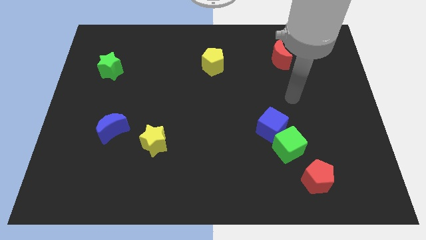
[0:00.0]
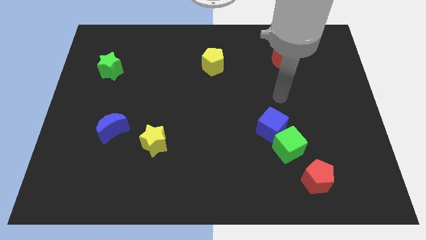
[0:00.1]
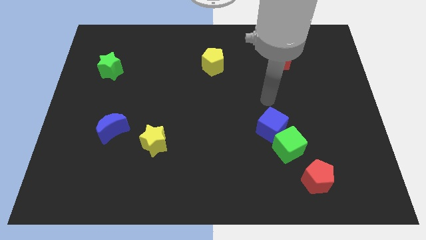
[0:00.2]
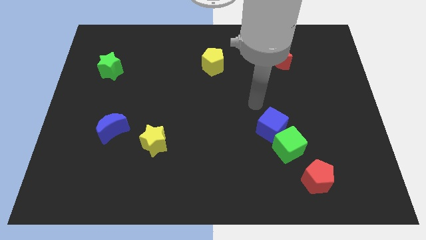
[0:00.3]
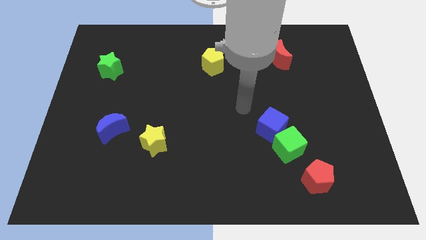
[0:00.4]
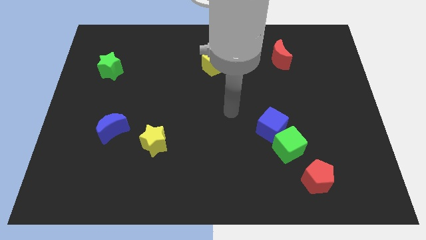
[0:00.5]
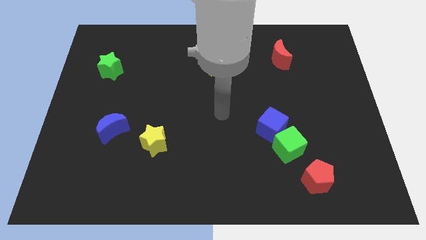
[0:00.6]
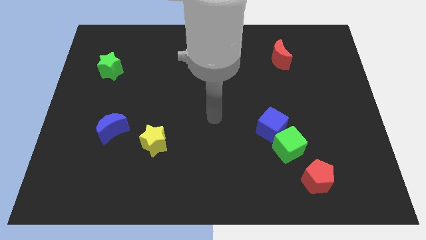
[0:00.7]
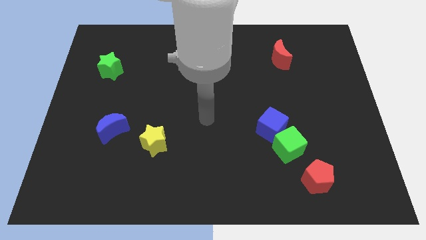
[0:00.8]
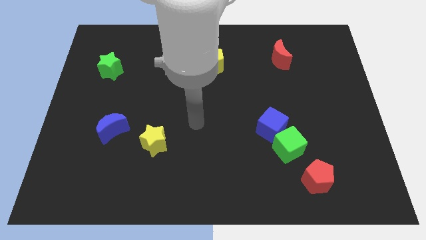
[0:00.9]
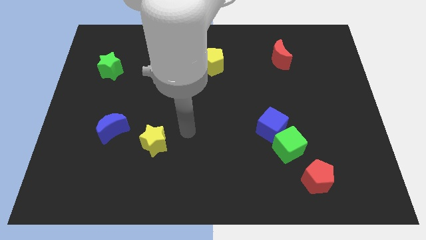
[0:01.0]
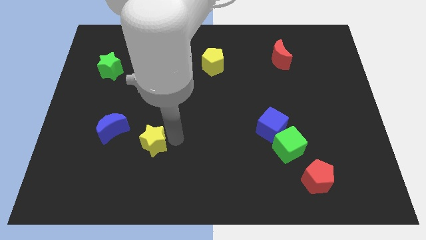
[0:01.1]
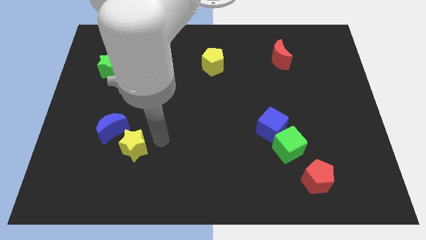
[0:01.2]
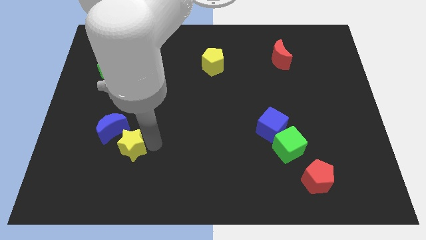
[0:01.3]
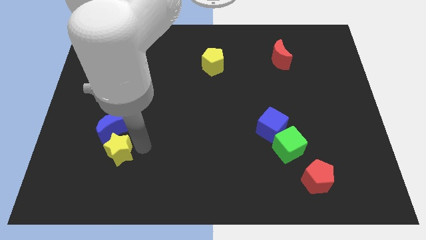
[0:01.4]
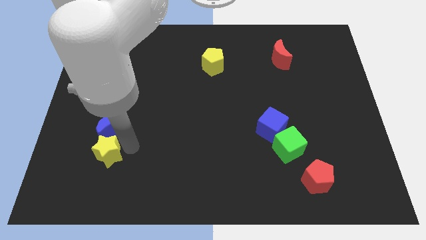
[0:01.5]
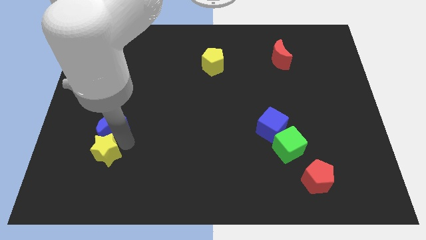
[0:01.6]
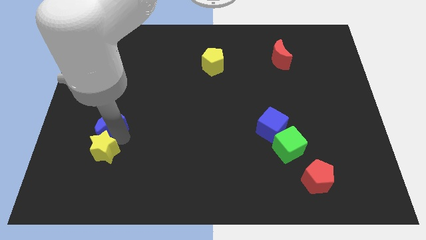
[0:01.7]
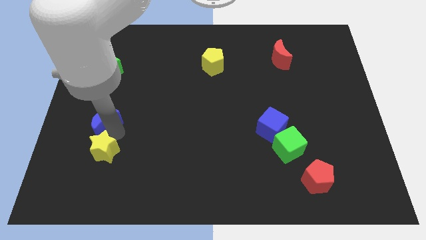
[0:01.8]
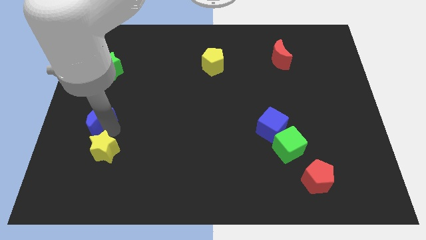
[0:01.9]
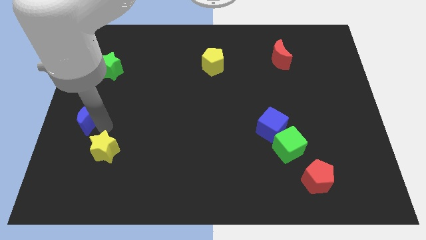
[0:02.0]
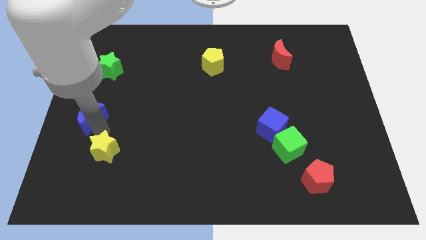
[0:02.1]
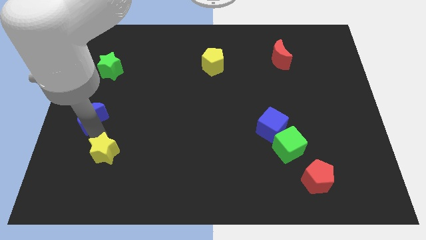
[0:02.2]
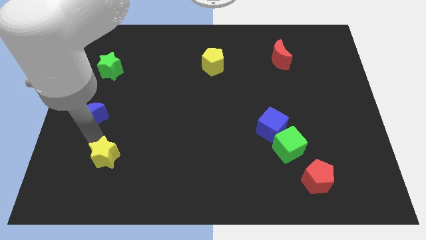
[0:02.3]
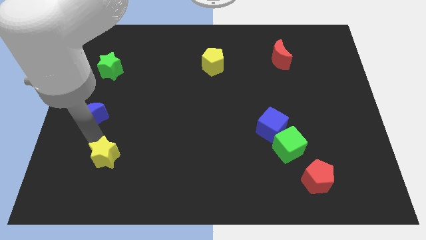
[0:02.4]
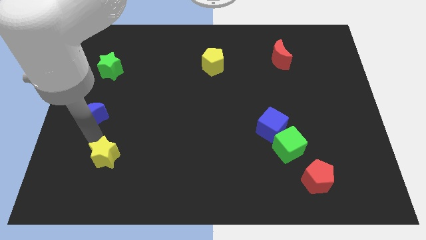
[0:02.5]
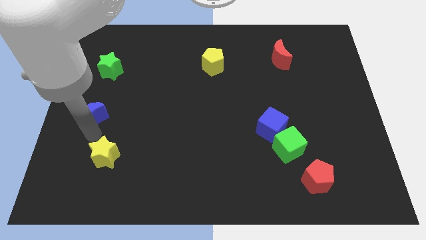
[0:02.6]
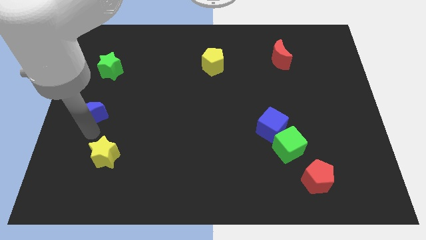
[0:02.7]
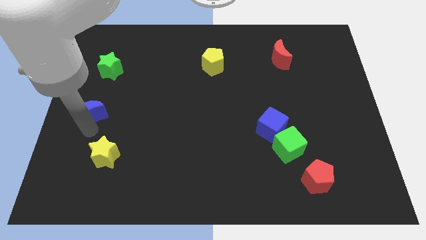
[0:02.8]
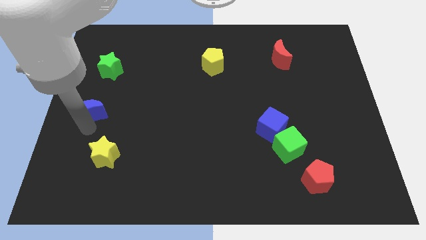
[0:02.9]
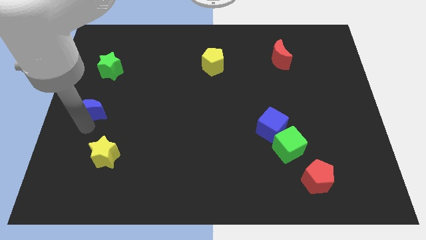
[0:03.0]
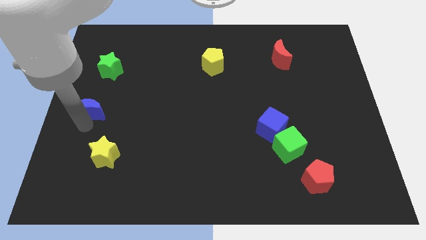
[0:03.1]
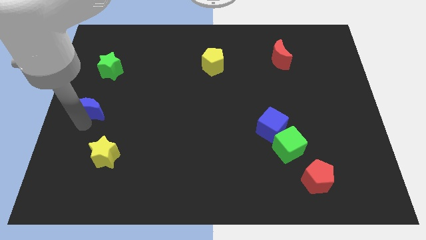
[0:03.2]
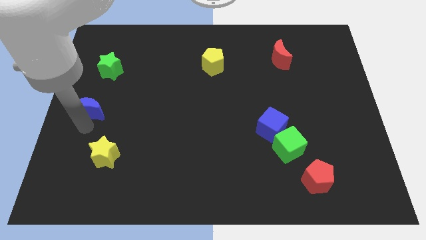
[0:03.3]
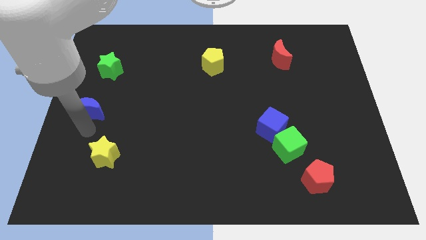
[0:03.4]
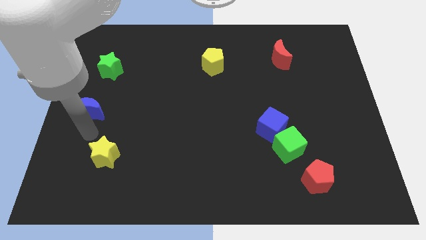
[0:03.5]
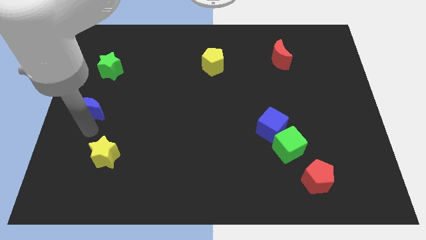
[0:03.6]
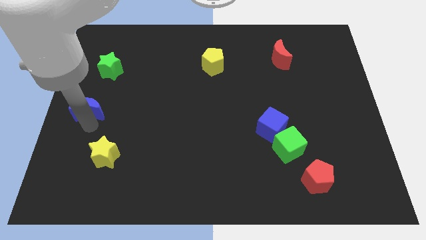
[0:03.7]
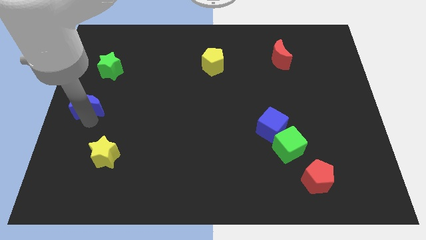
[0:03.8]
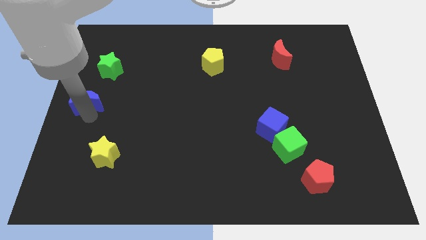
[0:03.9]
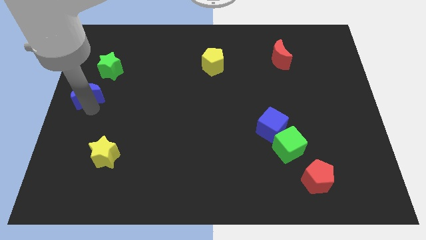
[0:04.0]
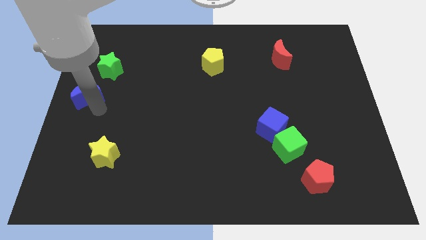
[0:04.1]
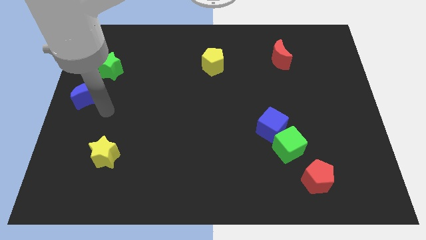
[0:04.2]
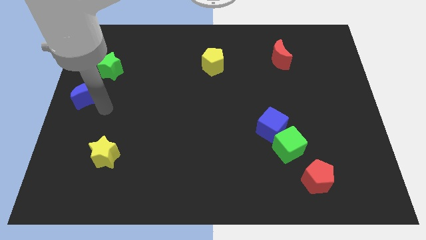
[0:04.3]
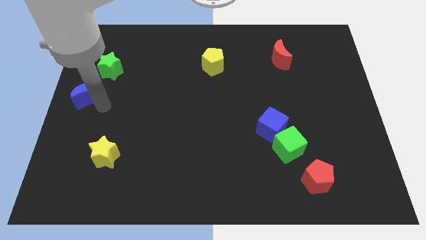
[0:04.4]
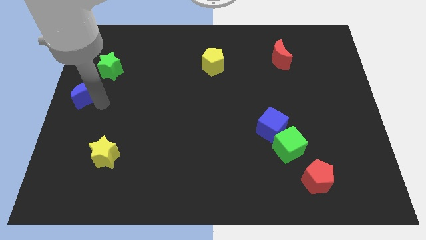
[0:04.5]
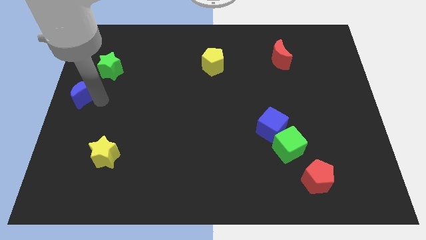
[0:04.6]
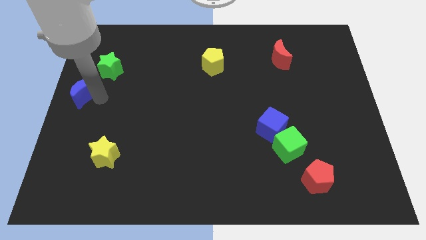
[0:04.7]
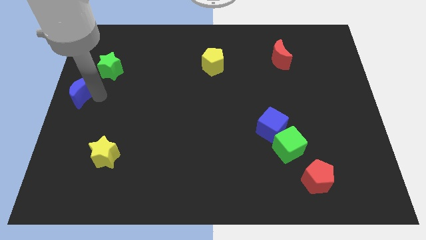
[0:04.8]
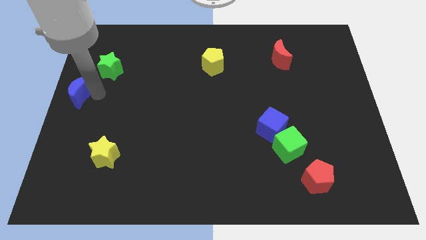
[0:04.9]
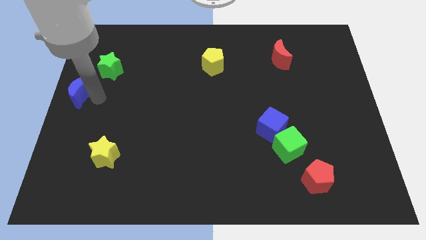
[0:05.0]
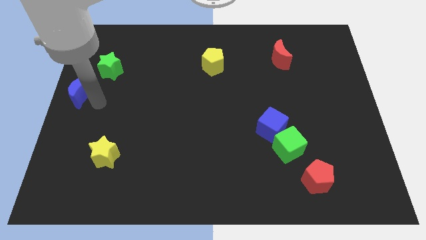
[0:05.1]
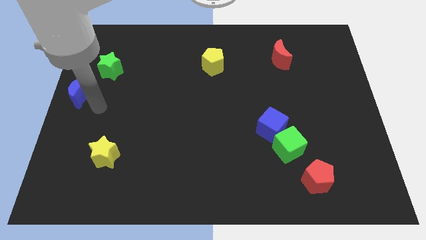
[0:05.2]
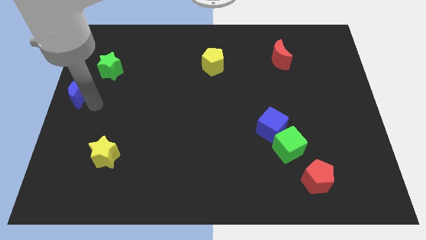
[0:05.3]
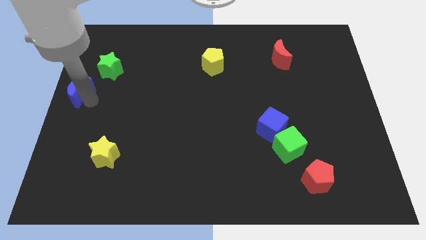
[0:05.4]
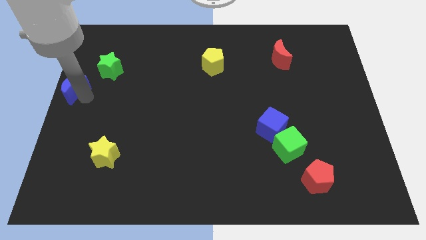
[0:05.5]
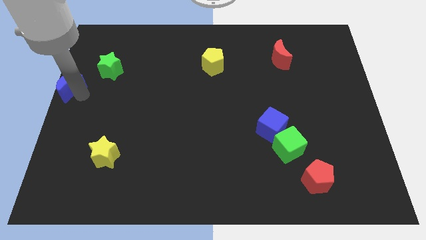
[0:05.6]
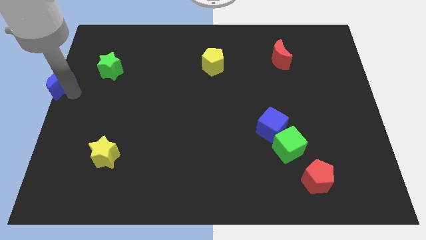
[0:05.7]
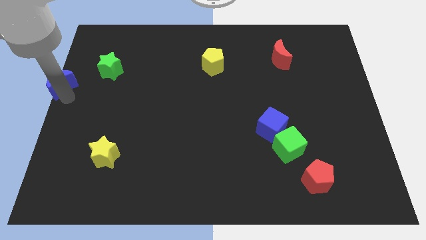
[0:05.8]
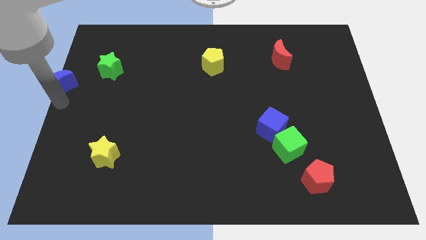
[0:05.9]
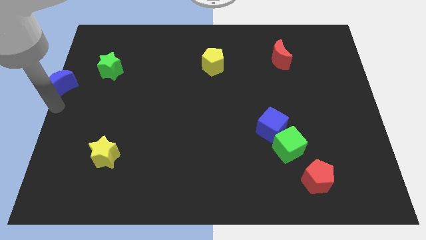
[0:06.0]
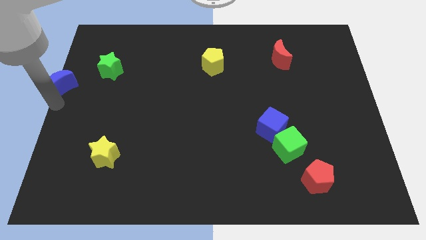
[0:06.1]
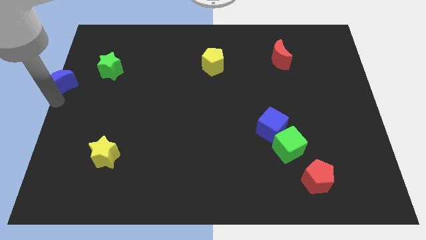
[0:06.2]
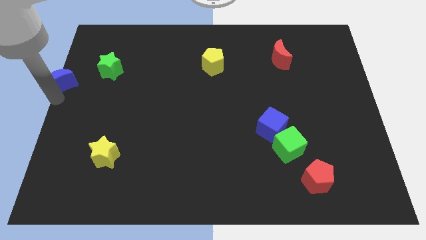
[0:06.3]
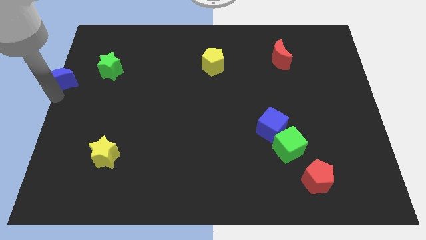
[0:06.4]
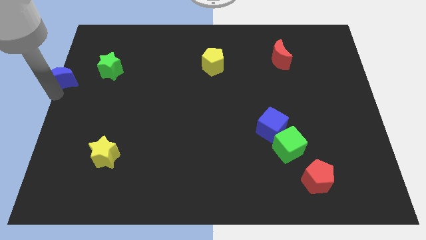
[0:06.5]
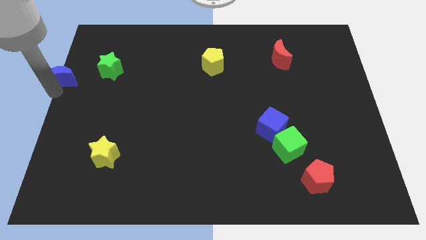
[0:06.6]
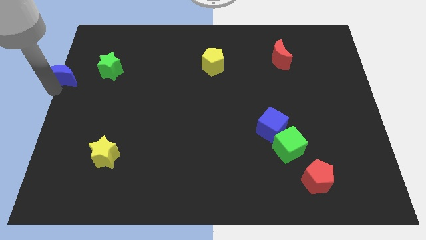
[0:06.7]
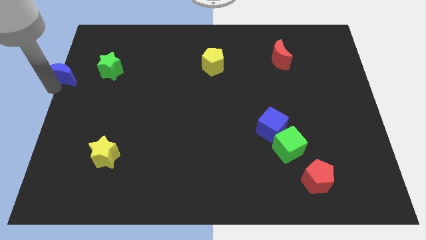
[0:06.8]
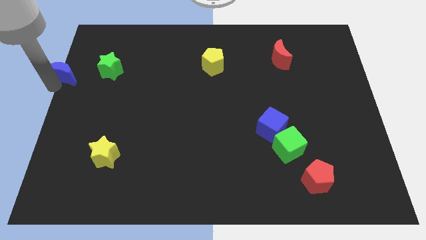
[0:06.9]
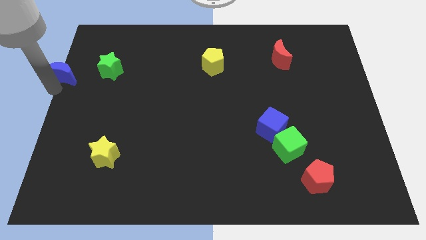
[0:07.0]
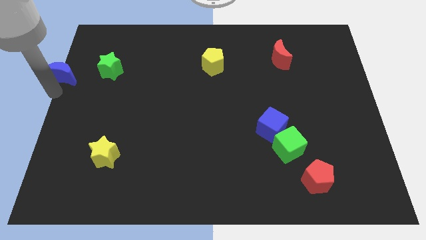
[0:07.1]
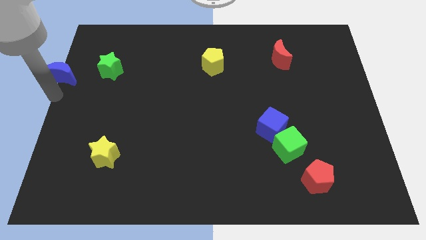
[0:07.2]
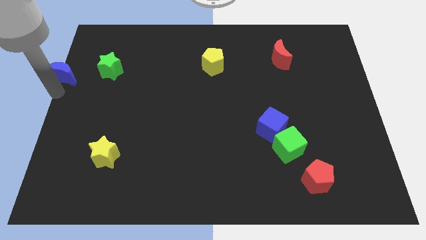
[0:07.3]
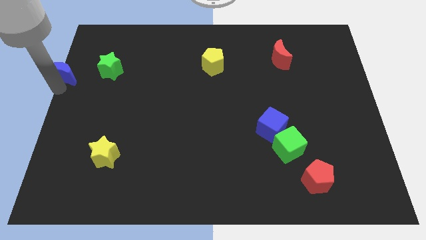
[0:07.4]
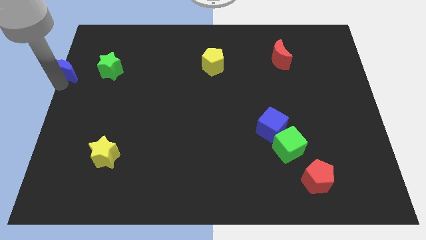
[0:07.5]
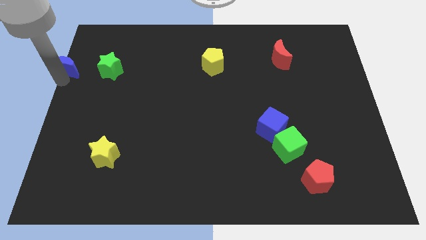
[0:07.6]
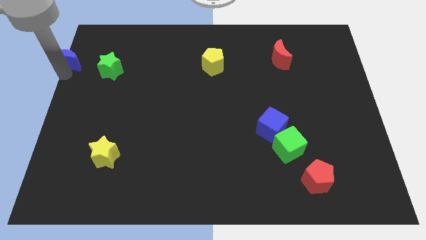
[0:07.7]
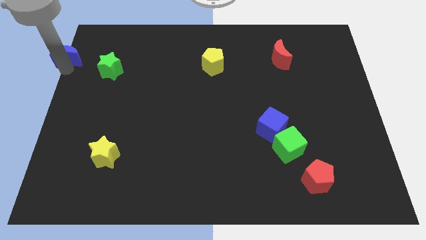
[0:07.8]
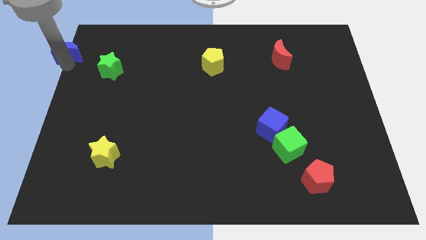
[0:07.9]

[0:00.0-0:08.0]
push the blue moon to the top left
